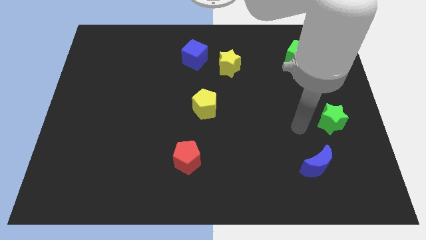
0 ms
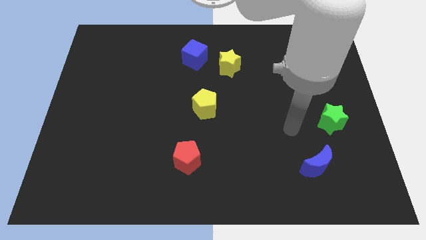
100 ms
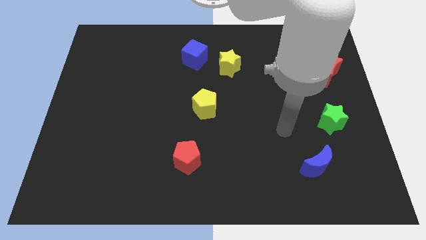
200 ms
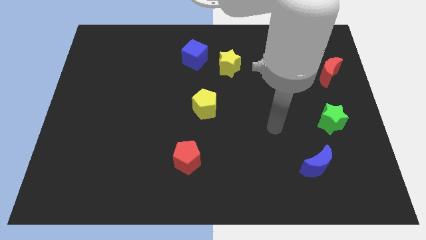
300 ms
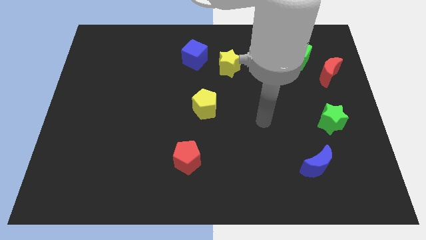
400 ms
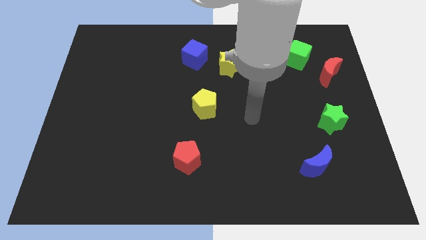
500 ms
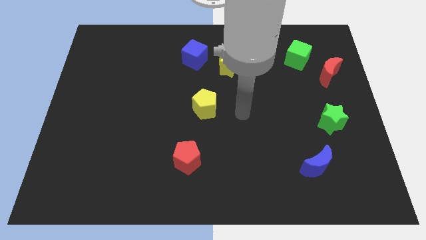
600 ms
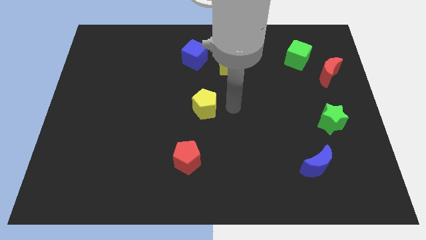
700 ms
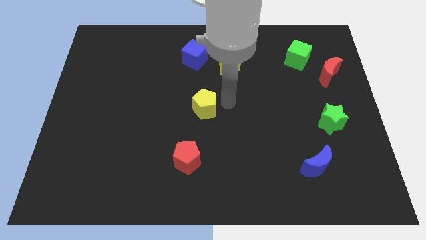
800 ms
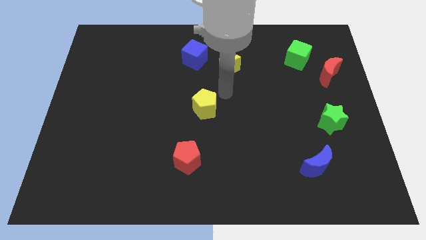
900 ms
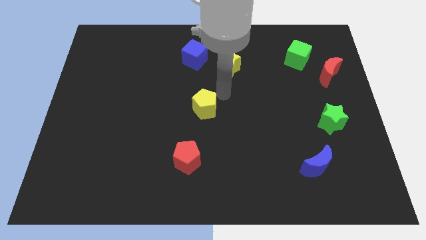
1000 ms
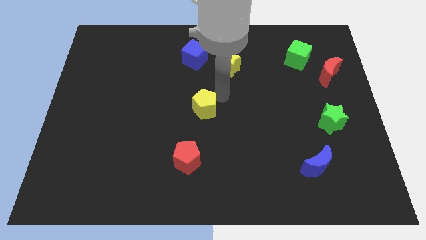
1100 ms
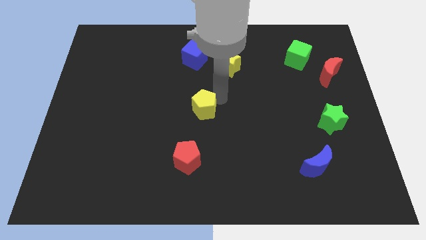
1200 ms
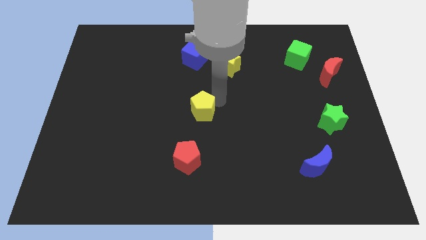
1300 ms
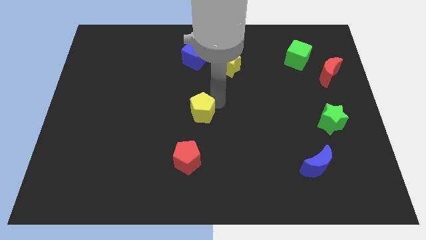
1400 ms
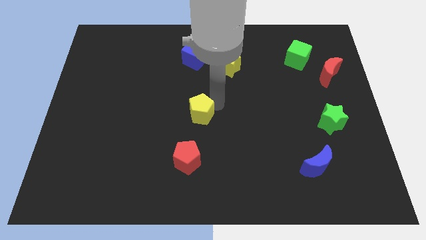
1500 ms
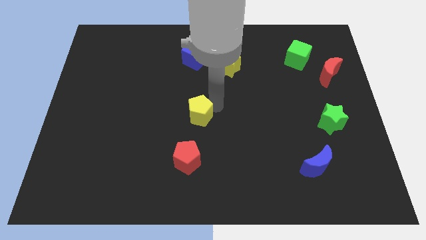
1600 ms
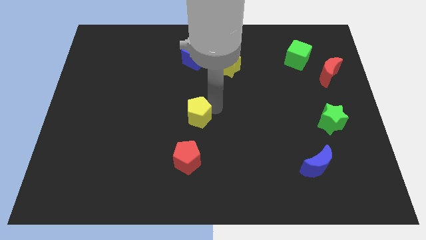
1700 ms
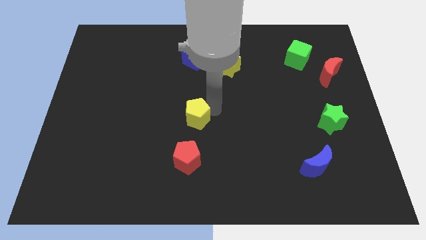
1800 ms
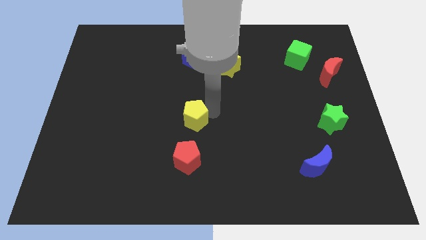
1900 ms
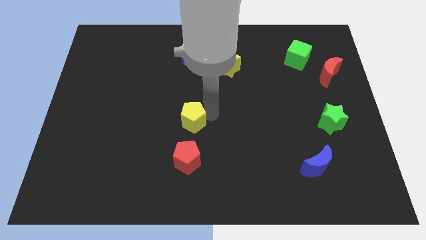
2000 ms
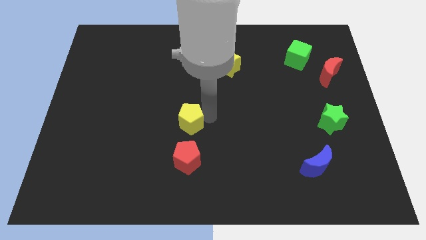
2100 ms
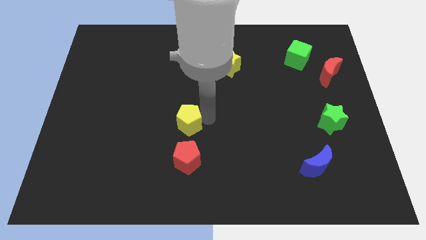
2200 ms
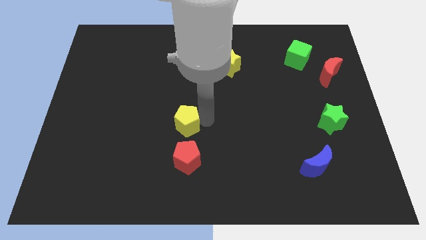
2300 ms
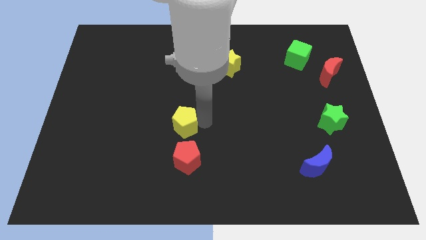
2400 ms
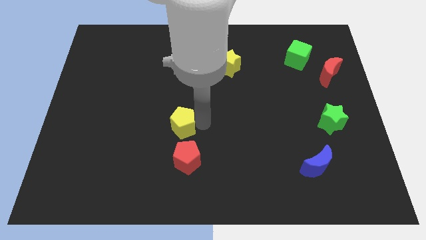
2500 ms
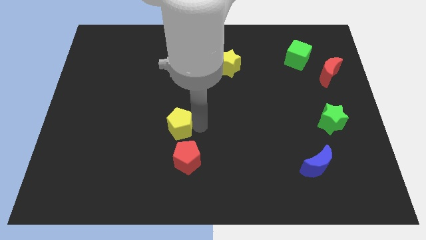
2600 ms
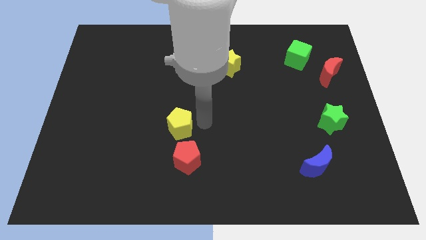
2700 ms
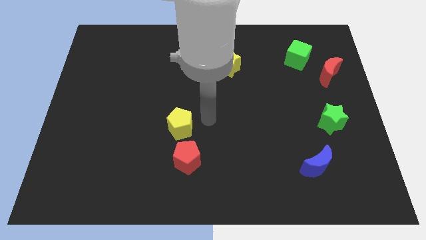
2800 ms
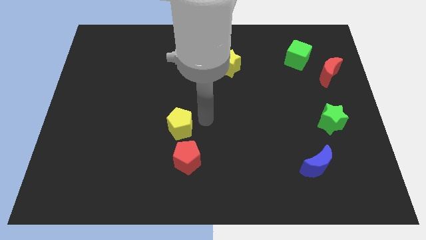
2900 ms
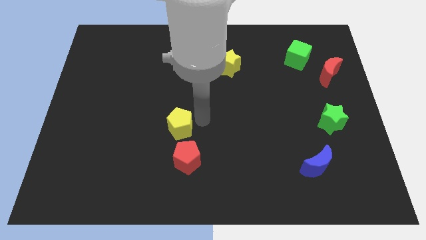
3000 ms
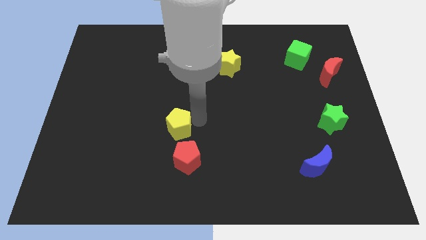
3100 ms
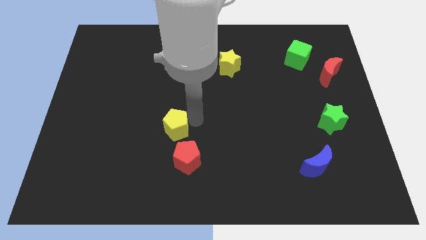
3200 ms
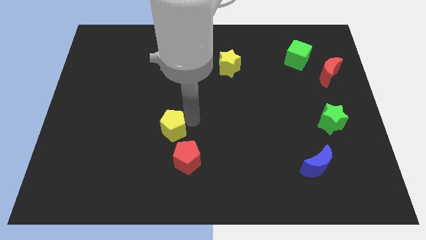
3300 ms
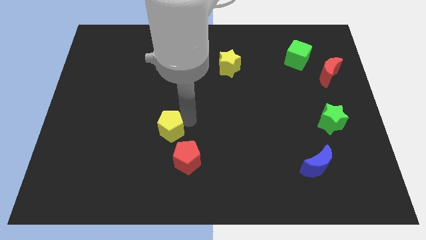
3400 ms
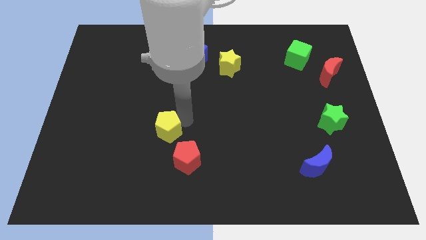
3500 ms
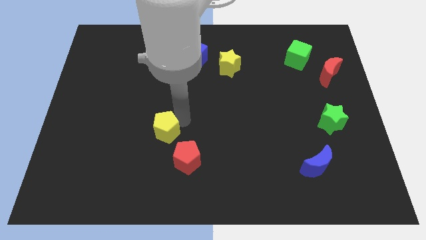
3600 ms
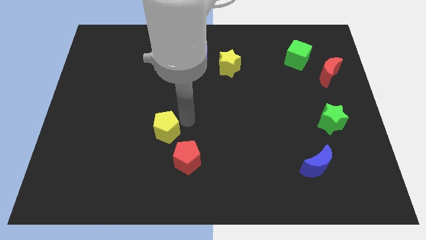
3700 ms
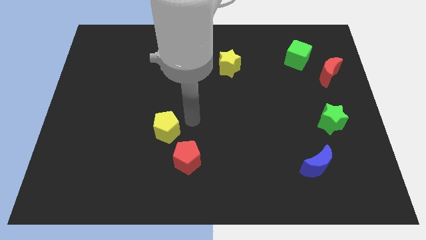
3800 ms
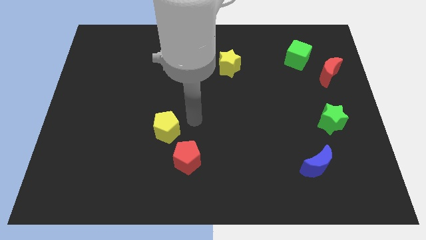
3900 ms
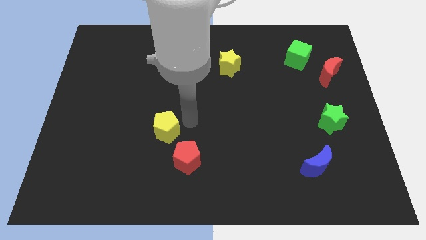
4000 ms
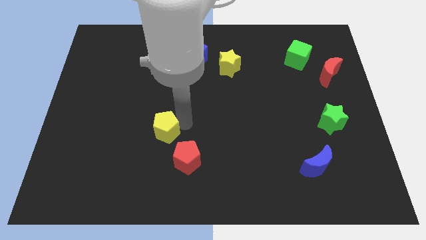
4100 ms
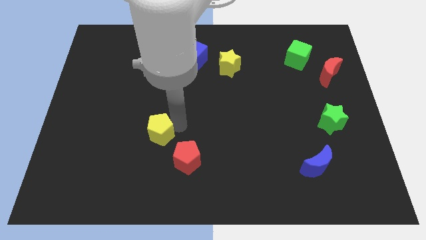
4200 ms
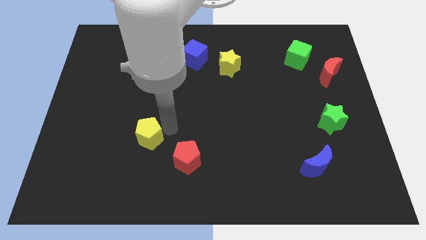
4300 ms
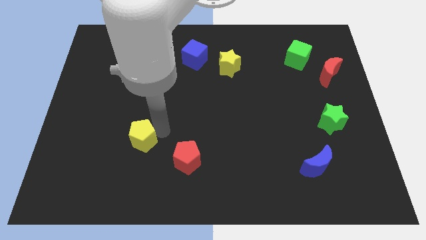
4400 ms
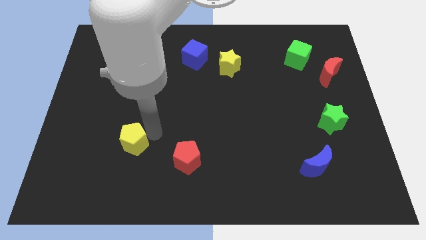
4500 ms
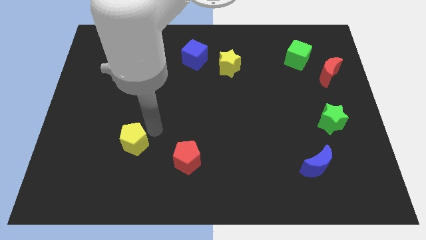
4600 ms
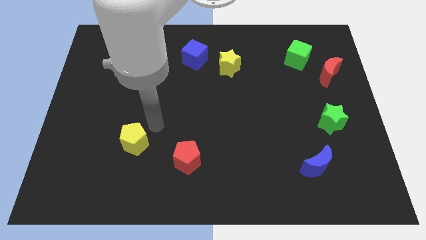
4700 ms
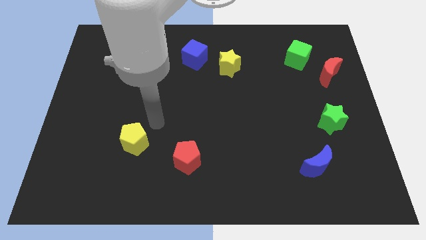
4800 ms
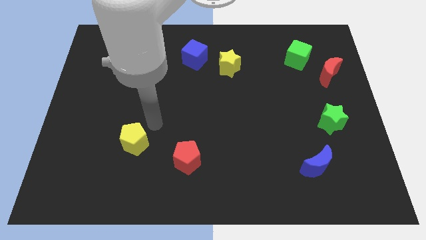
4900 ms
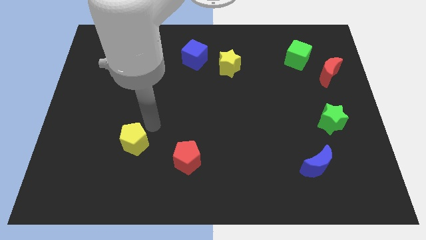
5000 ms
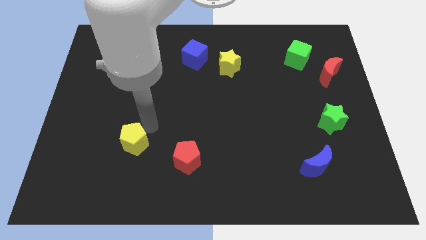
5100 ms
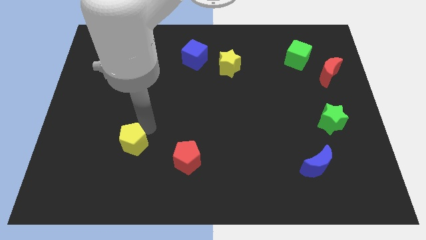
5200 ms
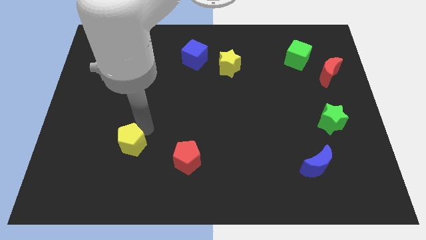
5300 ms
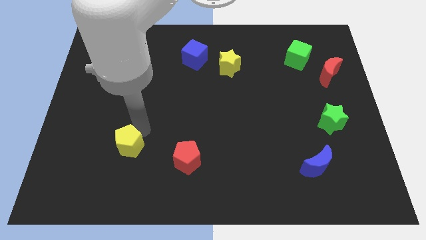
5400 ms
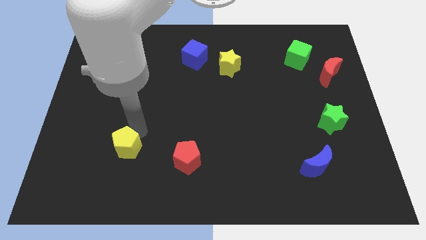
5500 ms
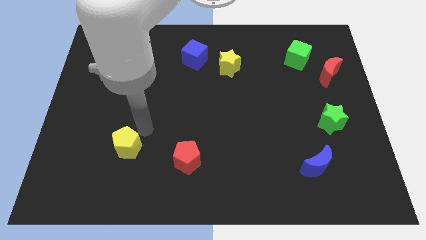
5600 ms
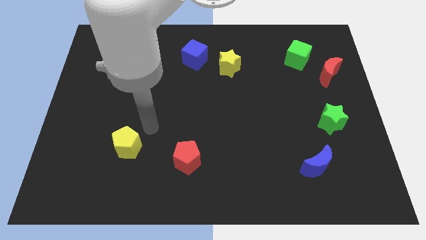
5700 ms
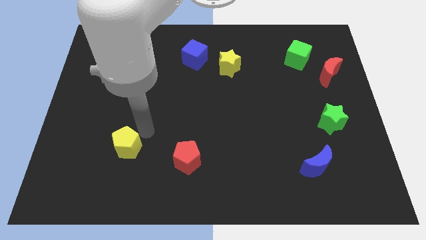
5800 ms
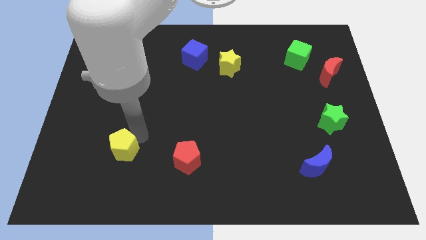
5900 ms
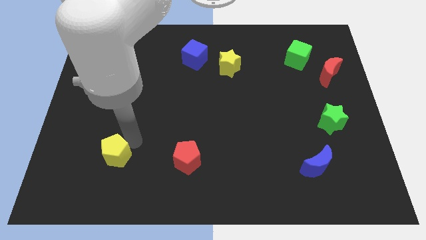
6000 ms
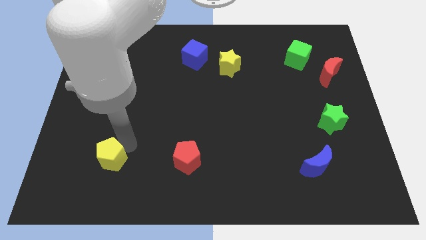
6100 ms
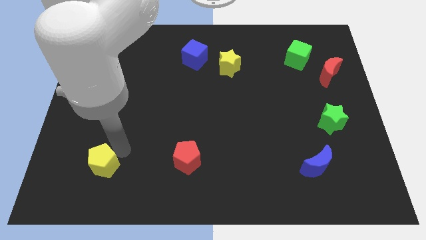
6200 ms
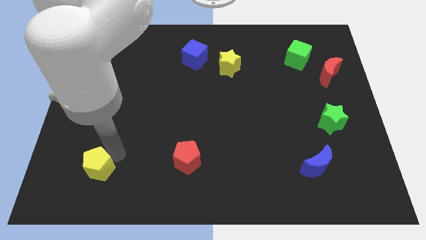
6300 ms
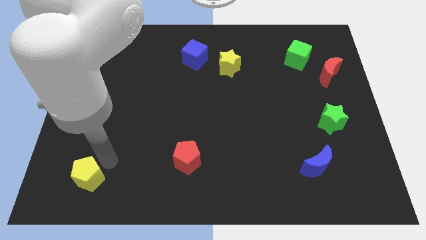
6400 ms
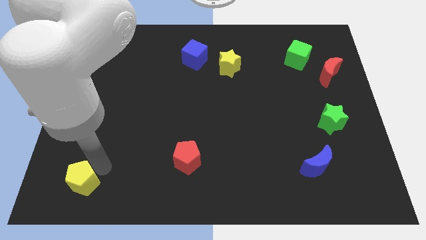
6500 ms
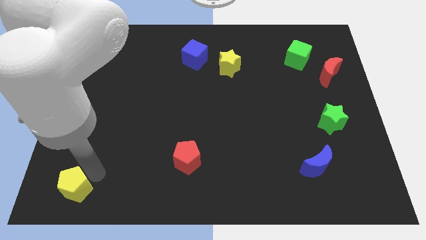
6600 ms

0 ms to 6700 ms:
put the yellow pentagon to the lower left corner
